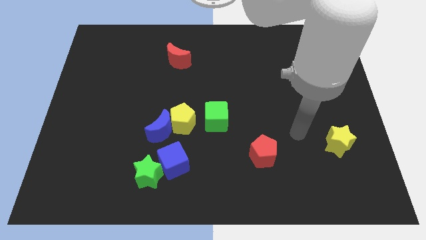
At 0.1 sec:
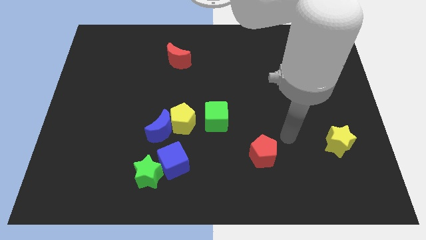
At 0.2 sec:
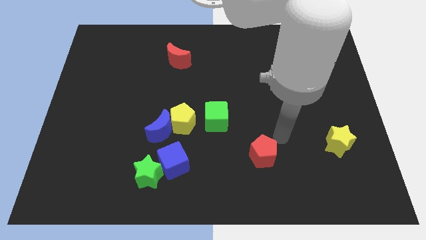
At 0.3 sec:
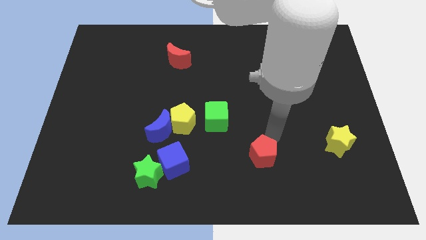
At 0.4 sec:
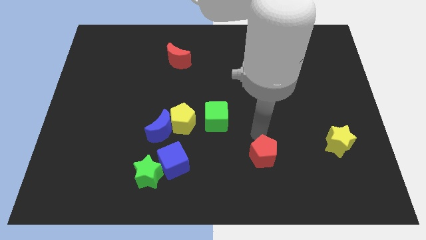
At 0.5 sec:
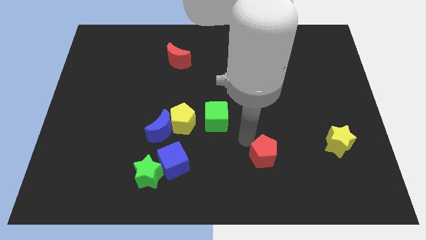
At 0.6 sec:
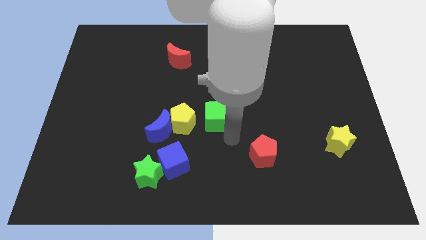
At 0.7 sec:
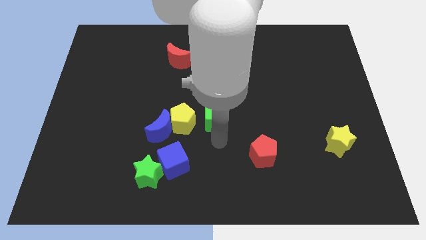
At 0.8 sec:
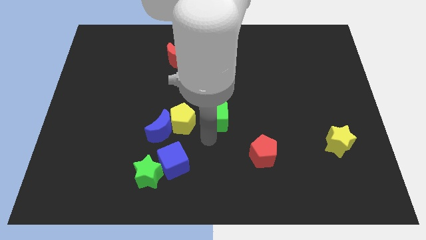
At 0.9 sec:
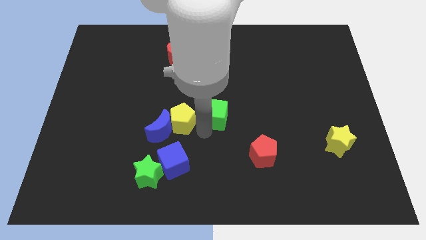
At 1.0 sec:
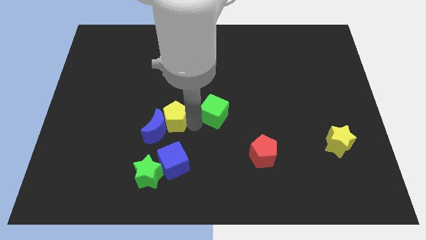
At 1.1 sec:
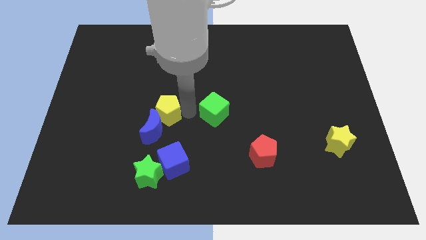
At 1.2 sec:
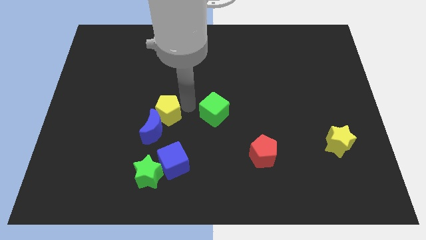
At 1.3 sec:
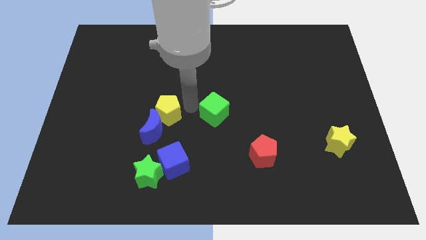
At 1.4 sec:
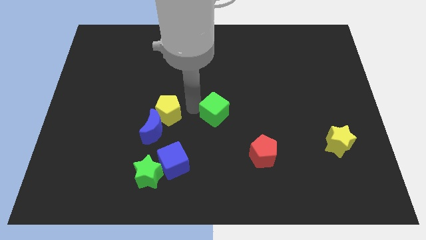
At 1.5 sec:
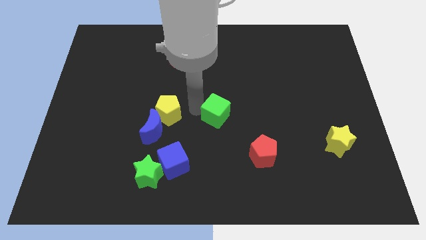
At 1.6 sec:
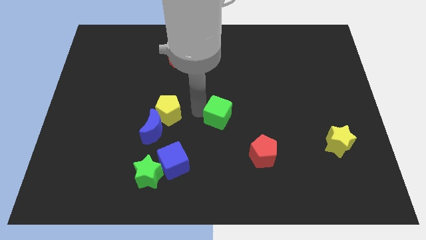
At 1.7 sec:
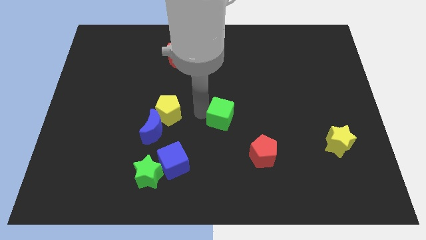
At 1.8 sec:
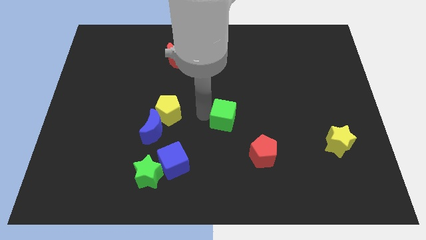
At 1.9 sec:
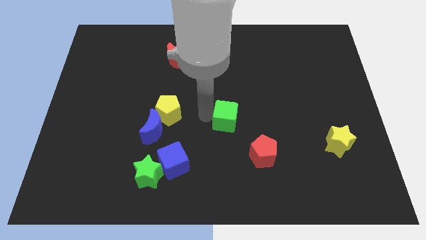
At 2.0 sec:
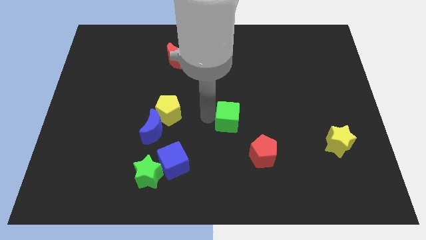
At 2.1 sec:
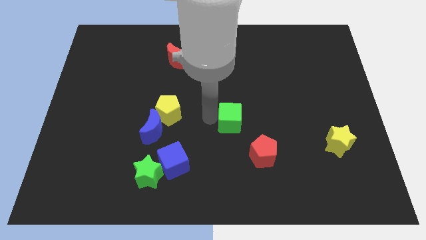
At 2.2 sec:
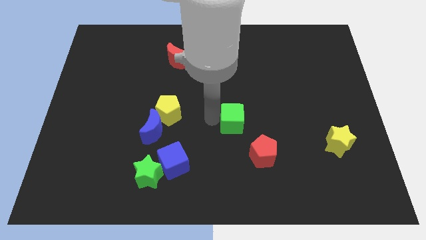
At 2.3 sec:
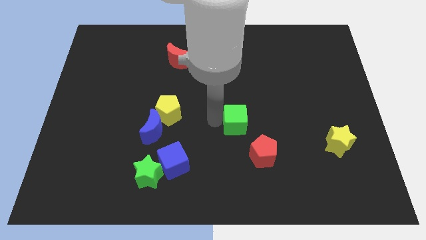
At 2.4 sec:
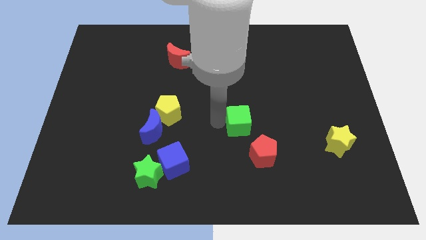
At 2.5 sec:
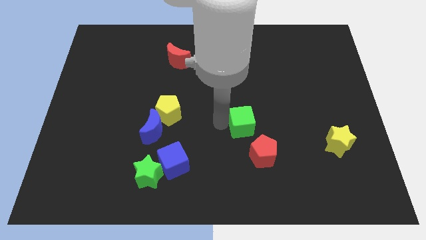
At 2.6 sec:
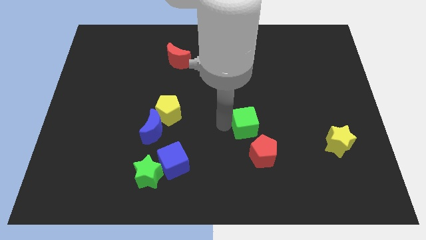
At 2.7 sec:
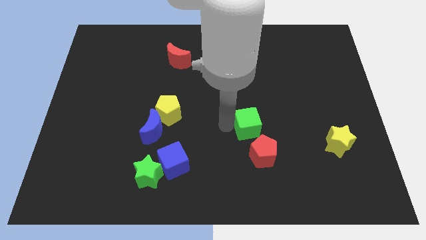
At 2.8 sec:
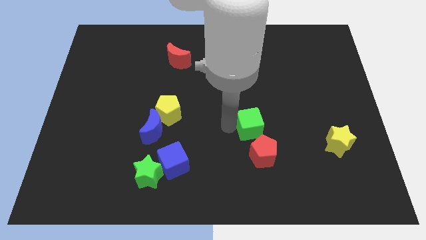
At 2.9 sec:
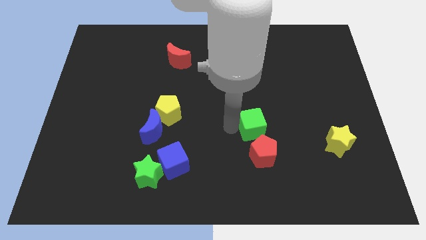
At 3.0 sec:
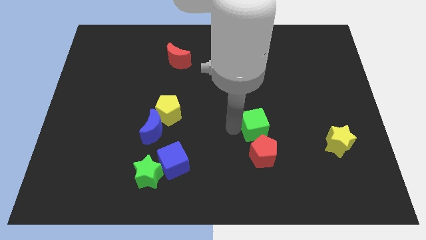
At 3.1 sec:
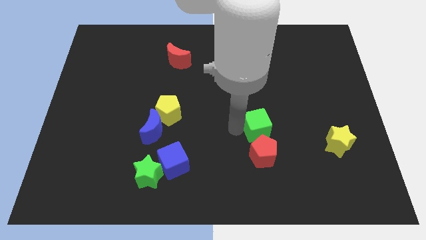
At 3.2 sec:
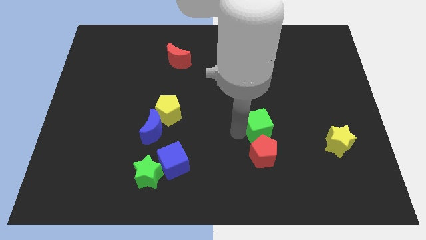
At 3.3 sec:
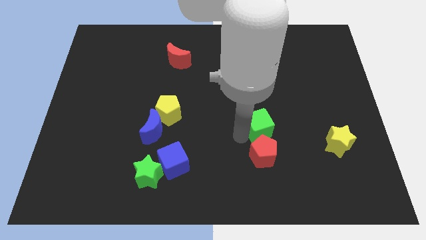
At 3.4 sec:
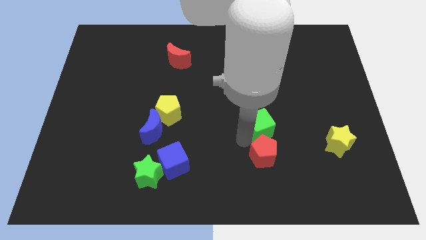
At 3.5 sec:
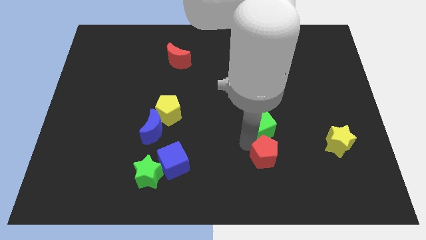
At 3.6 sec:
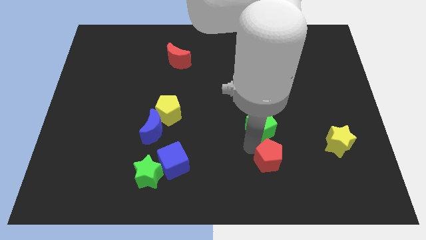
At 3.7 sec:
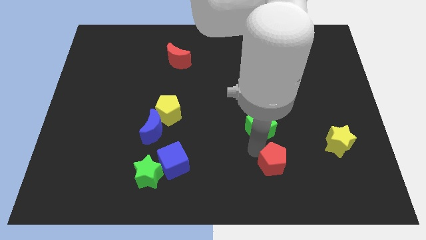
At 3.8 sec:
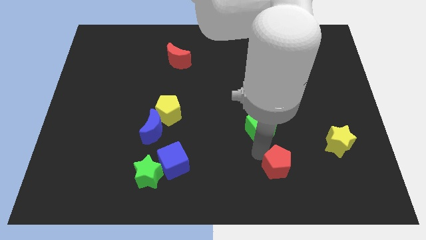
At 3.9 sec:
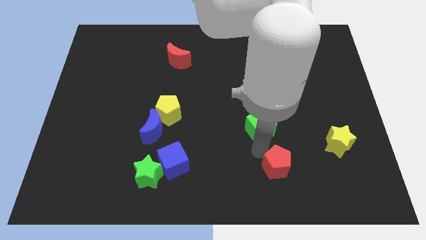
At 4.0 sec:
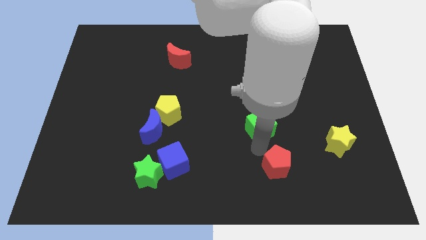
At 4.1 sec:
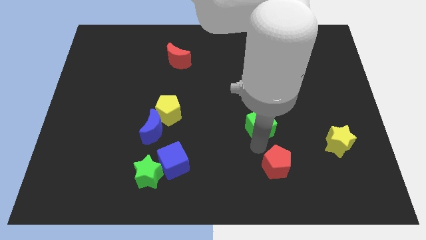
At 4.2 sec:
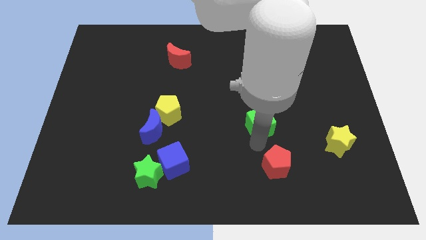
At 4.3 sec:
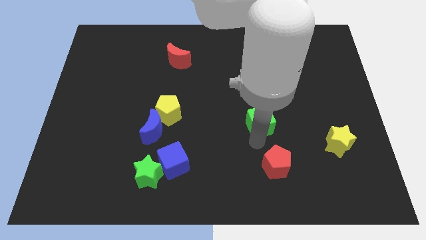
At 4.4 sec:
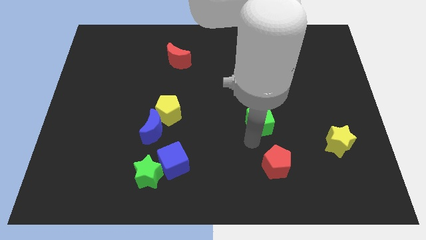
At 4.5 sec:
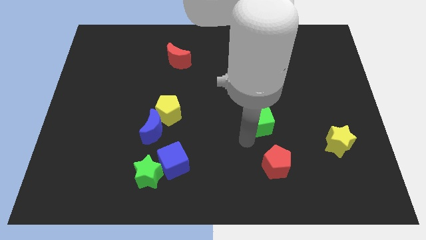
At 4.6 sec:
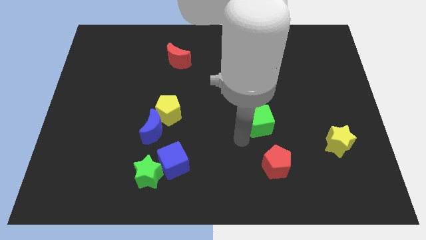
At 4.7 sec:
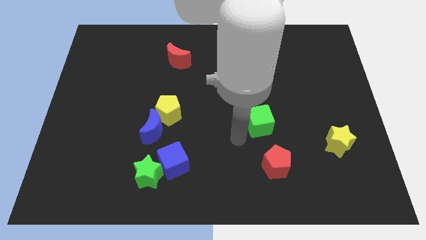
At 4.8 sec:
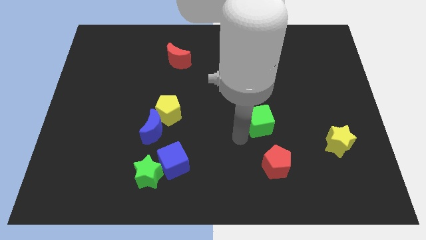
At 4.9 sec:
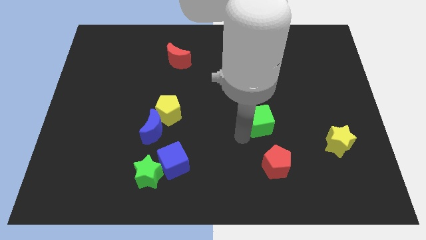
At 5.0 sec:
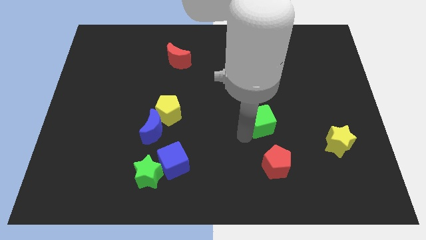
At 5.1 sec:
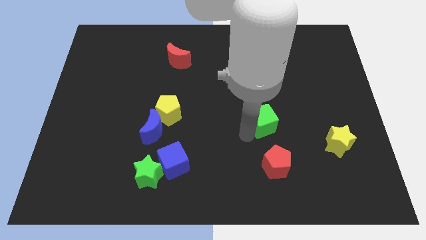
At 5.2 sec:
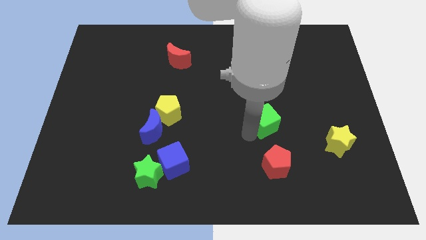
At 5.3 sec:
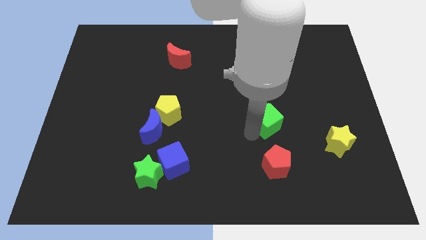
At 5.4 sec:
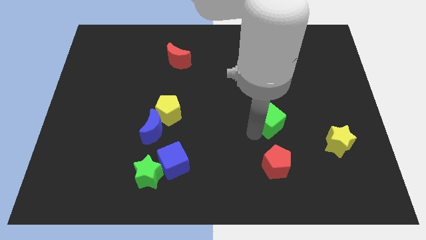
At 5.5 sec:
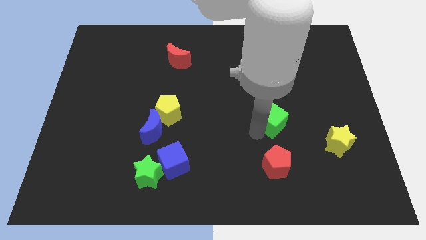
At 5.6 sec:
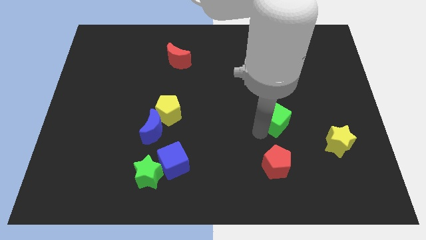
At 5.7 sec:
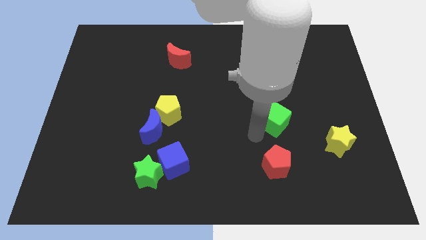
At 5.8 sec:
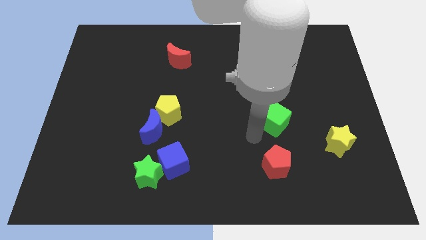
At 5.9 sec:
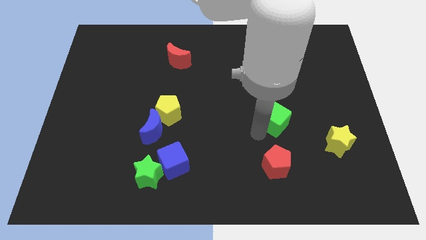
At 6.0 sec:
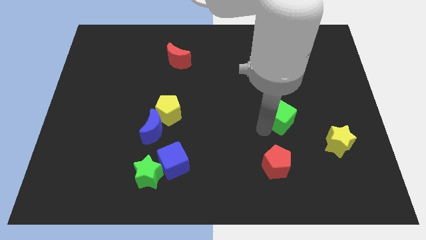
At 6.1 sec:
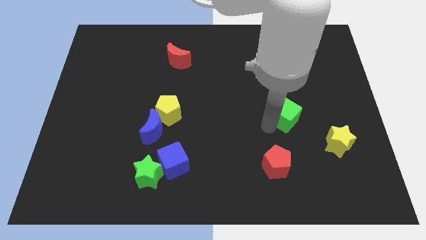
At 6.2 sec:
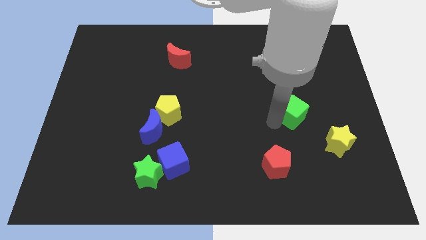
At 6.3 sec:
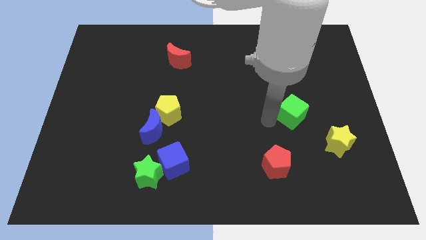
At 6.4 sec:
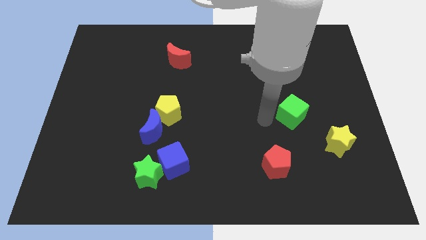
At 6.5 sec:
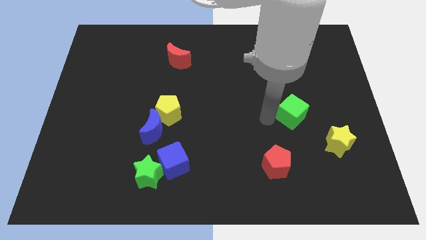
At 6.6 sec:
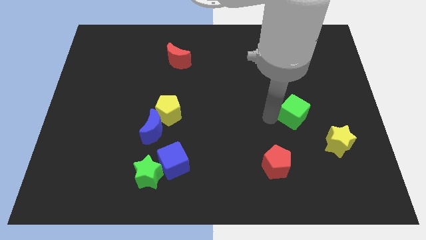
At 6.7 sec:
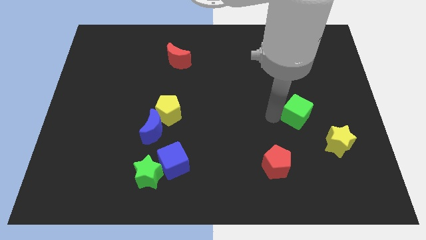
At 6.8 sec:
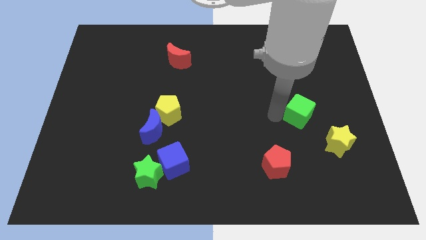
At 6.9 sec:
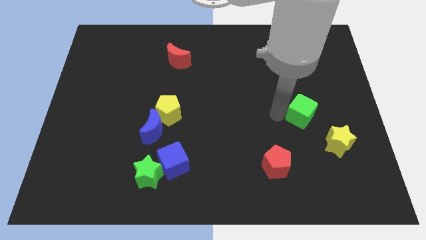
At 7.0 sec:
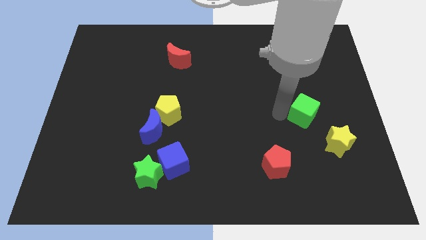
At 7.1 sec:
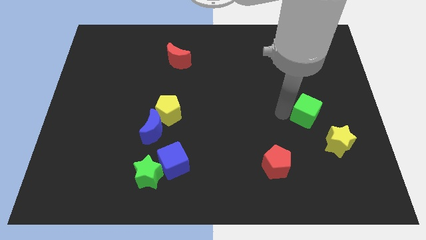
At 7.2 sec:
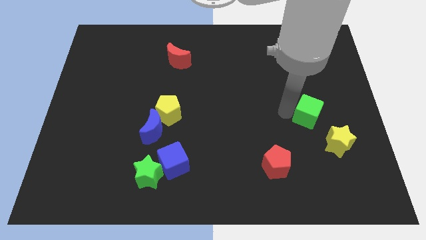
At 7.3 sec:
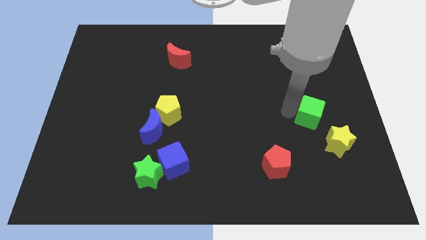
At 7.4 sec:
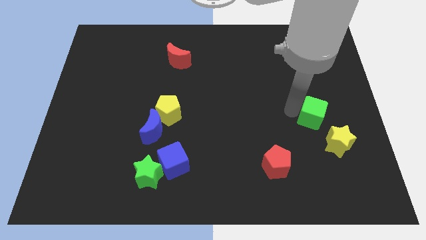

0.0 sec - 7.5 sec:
slide the green cube to the top side of the yellow star
